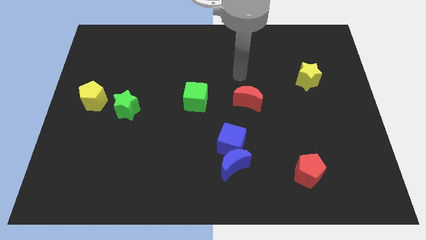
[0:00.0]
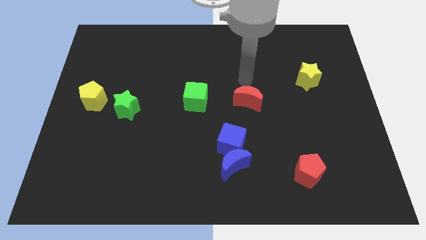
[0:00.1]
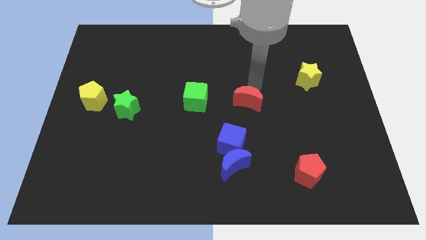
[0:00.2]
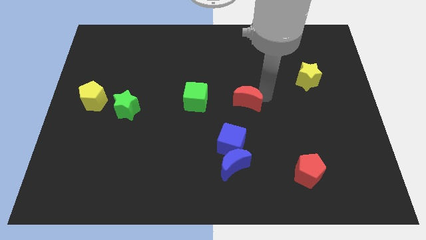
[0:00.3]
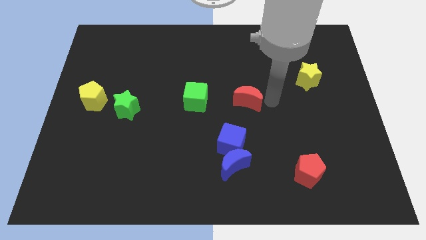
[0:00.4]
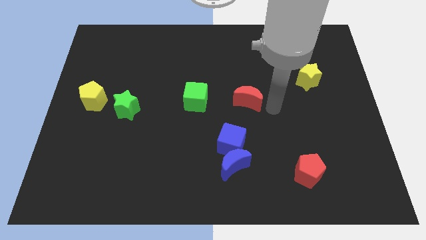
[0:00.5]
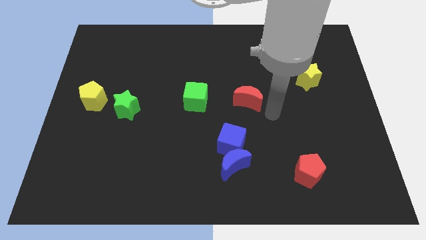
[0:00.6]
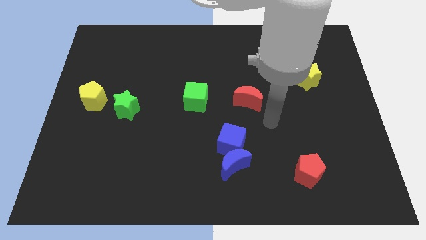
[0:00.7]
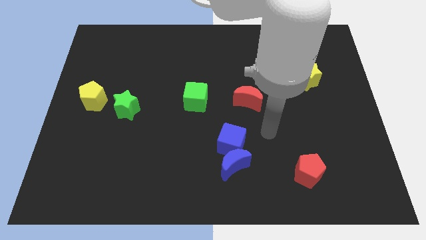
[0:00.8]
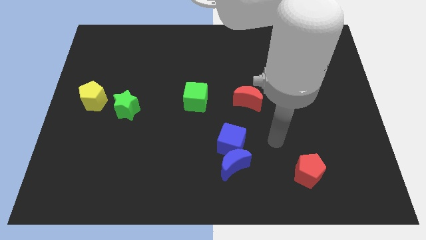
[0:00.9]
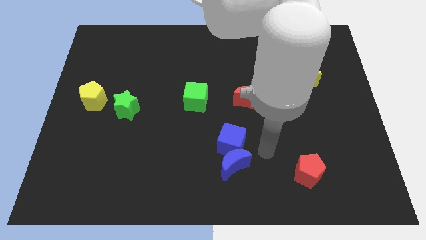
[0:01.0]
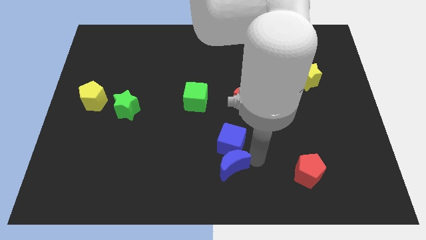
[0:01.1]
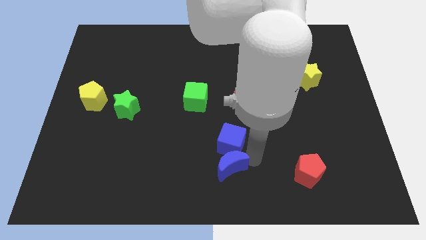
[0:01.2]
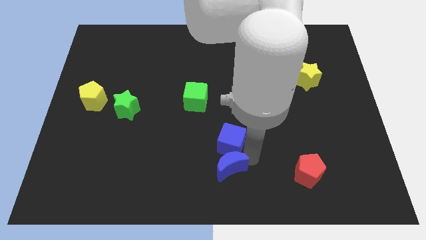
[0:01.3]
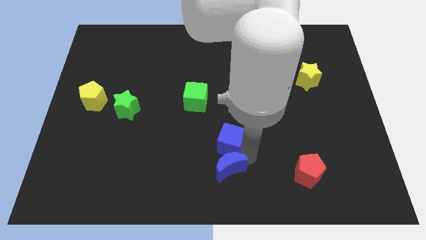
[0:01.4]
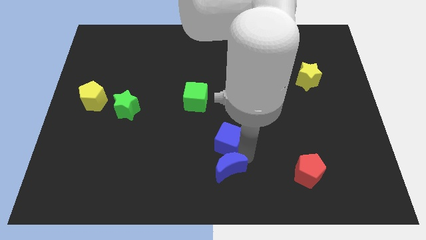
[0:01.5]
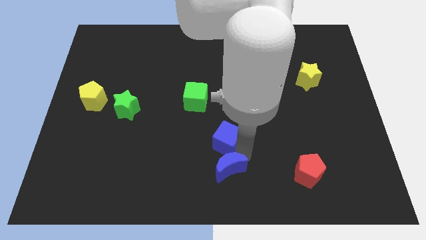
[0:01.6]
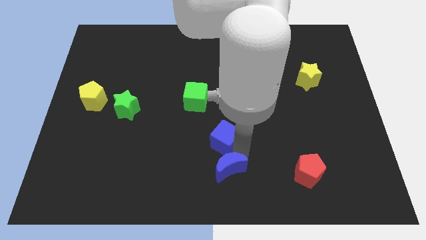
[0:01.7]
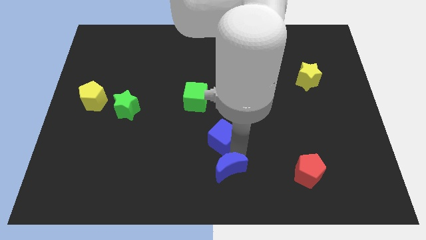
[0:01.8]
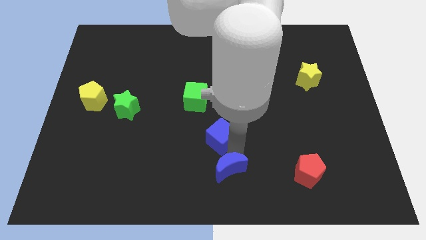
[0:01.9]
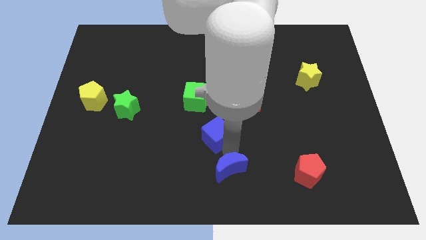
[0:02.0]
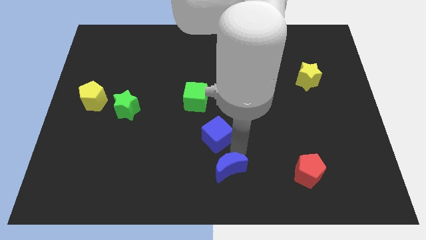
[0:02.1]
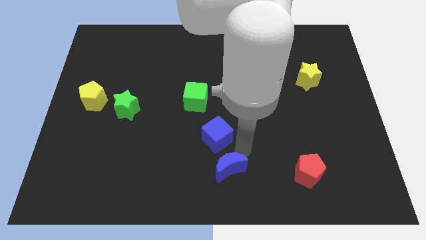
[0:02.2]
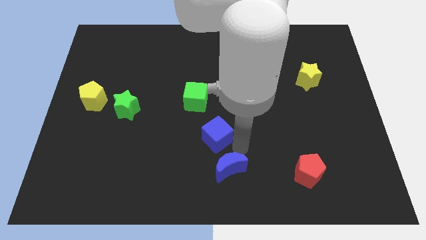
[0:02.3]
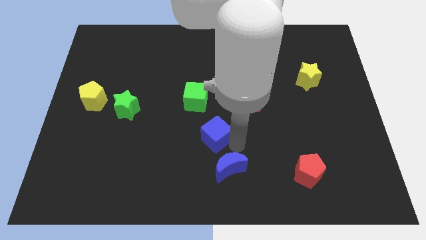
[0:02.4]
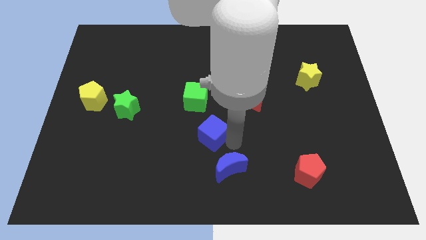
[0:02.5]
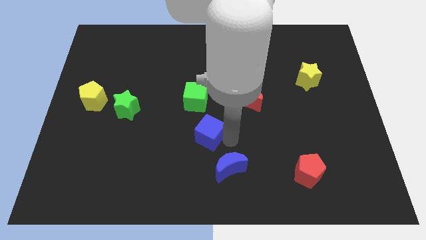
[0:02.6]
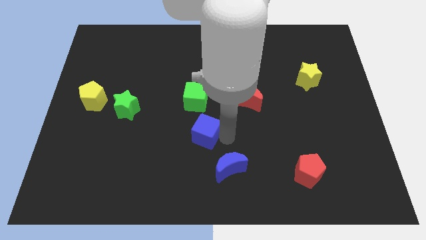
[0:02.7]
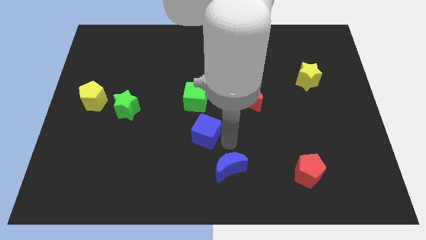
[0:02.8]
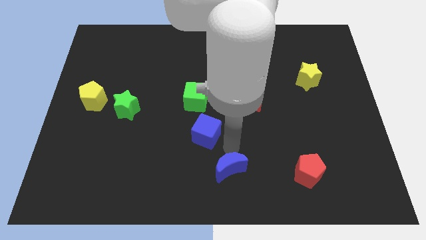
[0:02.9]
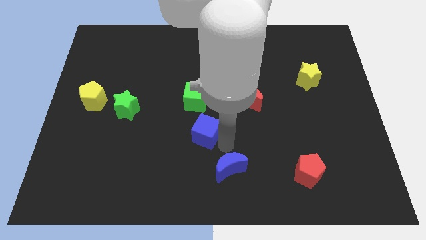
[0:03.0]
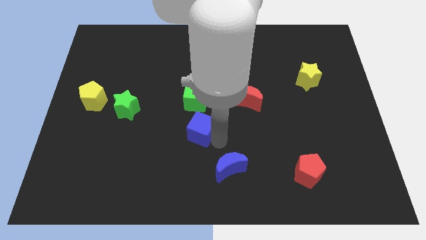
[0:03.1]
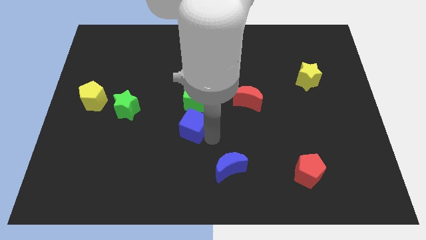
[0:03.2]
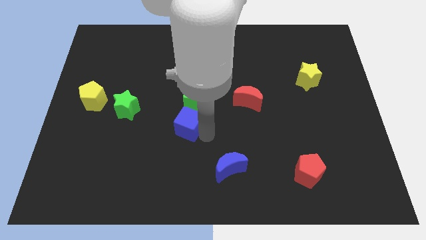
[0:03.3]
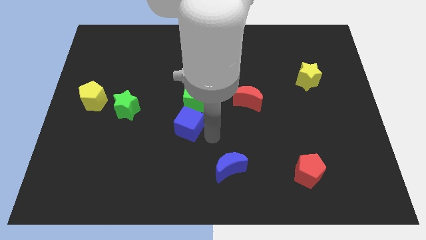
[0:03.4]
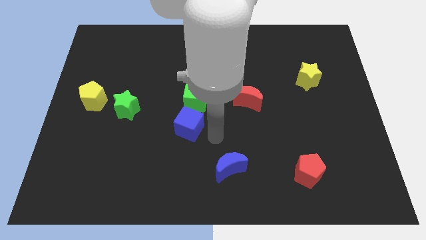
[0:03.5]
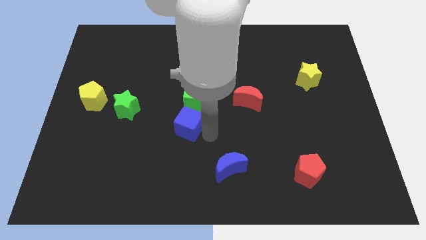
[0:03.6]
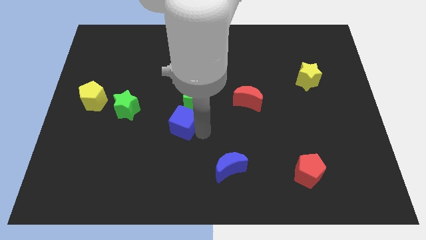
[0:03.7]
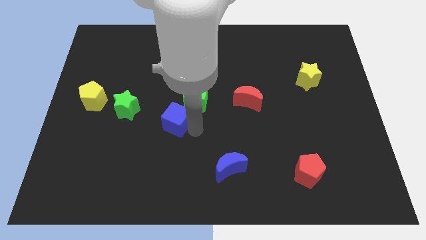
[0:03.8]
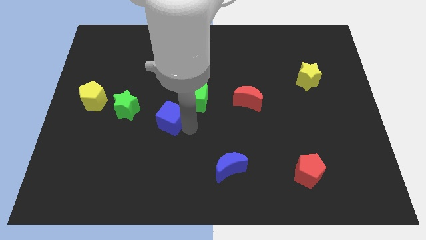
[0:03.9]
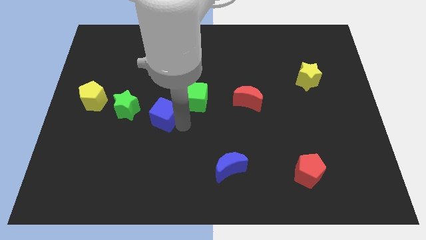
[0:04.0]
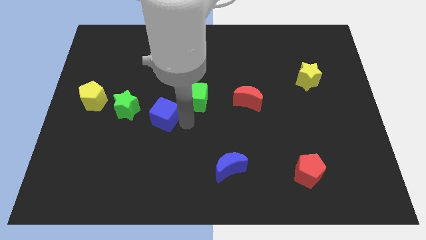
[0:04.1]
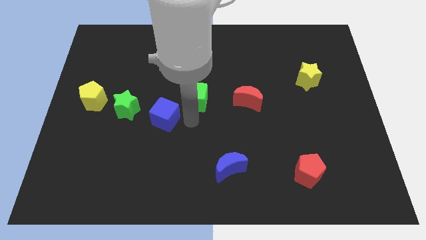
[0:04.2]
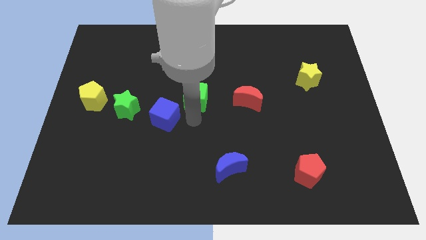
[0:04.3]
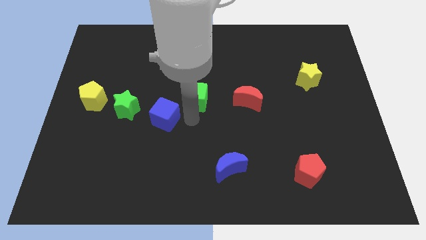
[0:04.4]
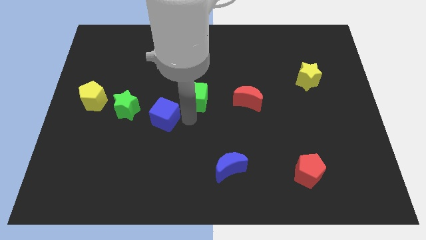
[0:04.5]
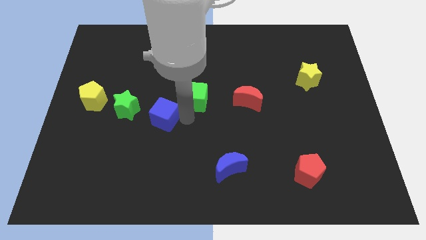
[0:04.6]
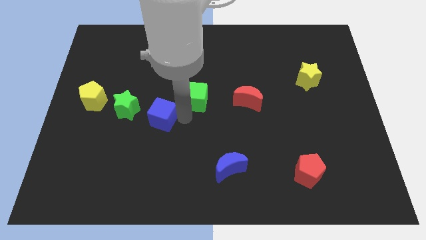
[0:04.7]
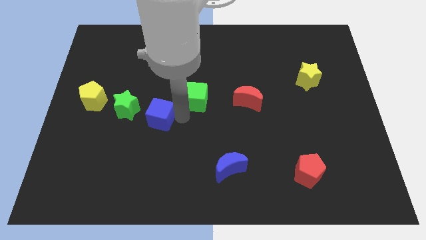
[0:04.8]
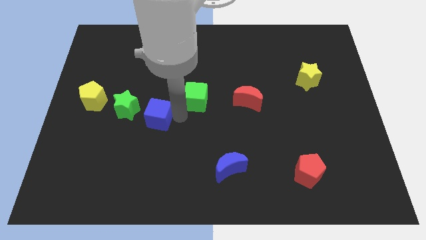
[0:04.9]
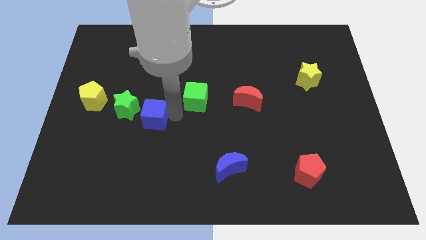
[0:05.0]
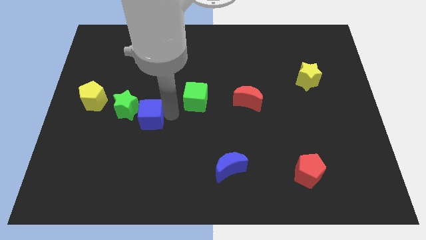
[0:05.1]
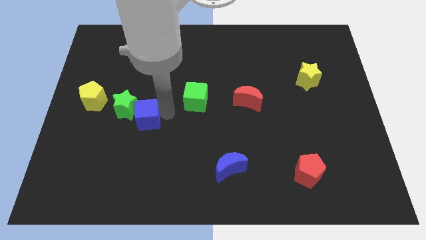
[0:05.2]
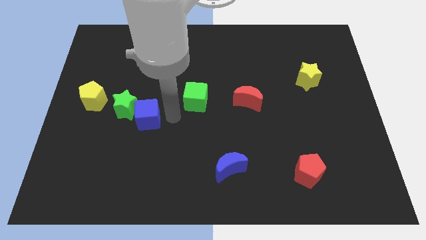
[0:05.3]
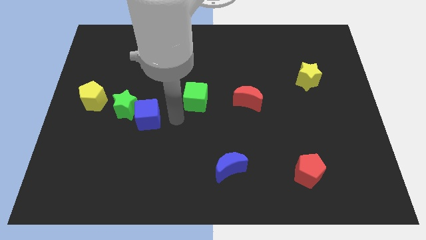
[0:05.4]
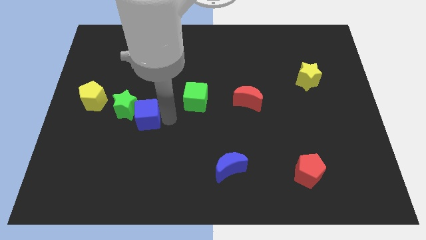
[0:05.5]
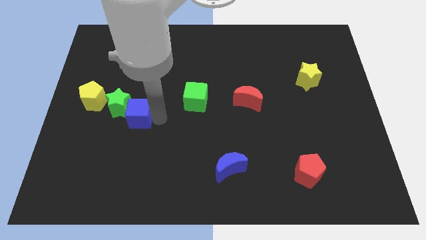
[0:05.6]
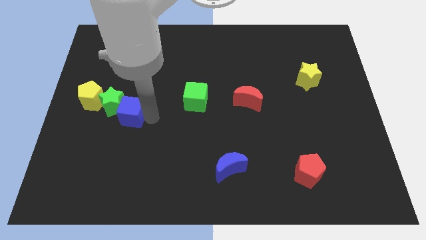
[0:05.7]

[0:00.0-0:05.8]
put the blue cube diagonally down and to the right of the yellow pentagon

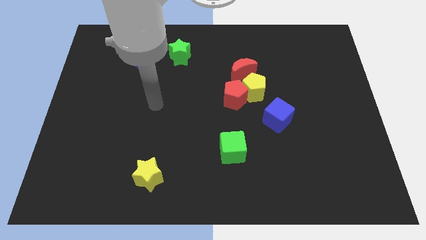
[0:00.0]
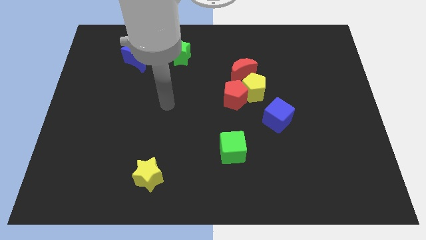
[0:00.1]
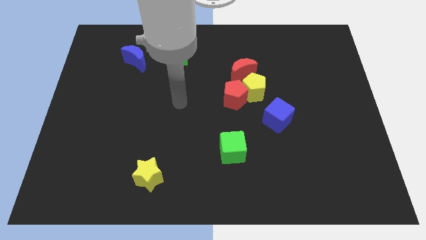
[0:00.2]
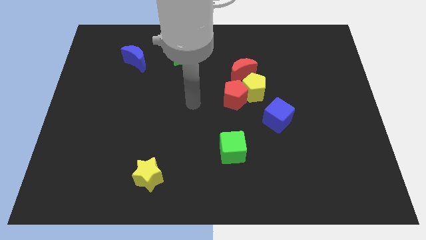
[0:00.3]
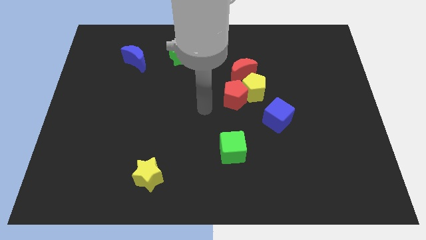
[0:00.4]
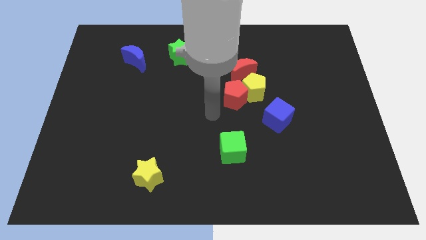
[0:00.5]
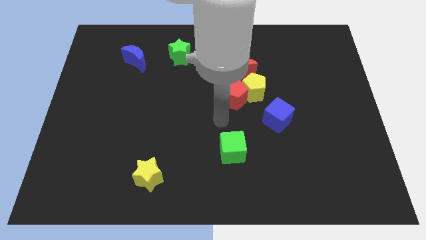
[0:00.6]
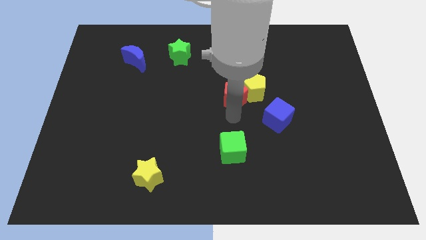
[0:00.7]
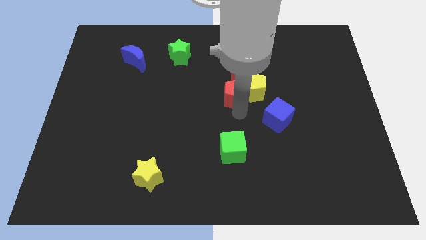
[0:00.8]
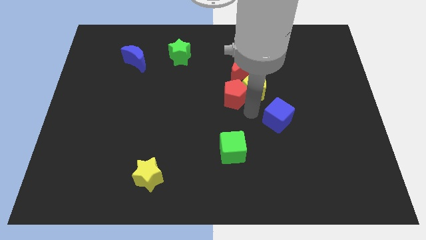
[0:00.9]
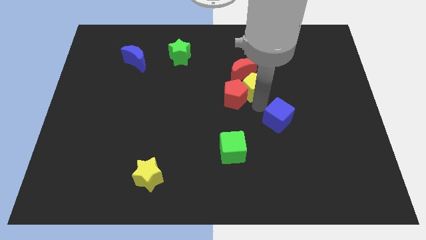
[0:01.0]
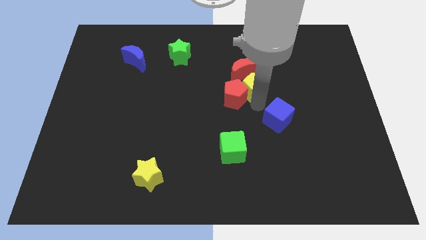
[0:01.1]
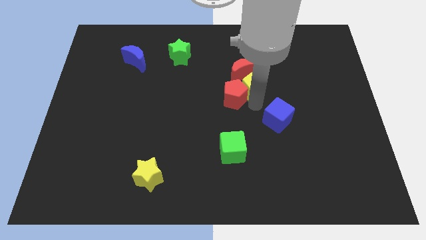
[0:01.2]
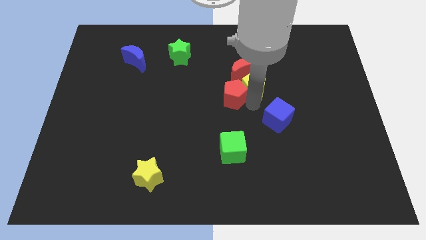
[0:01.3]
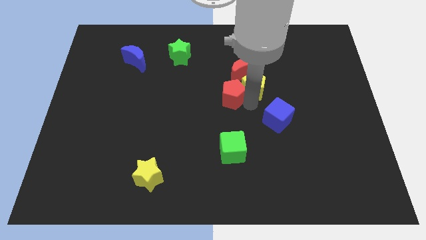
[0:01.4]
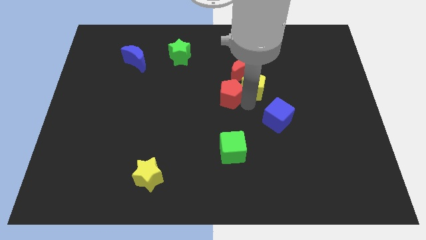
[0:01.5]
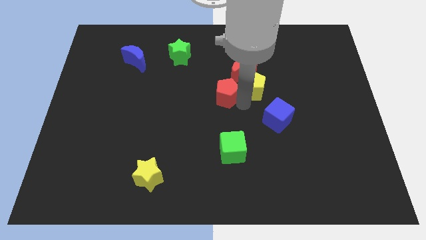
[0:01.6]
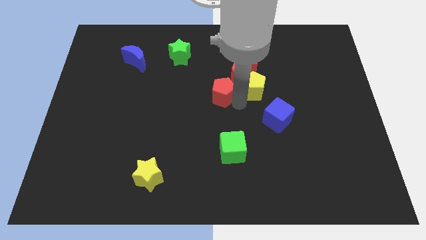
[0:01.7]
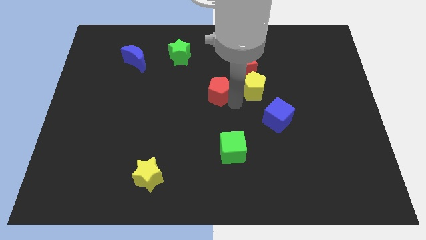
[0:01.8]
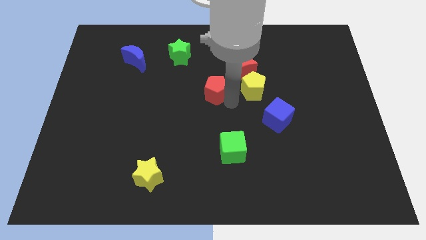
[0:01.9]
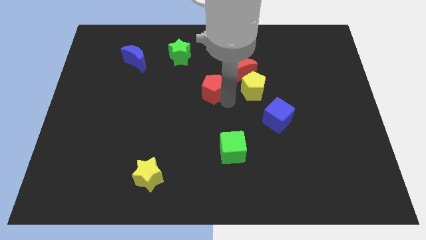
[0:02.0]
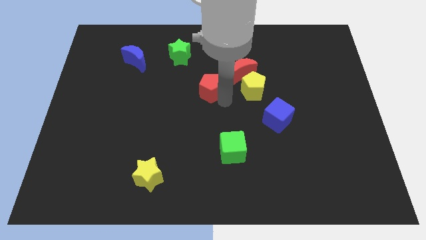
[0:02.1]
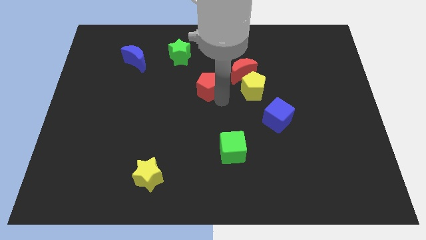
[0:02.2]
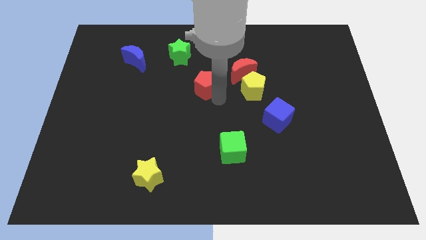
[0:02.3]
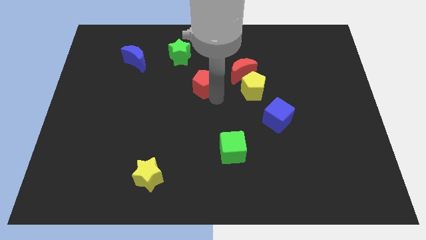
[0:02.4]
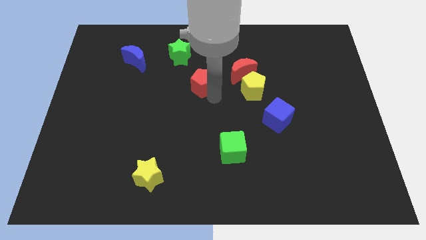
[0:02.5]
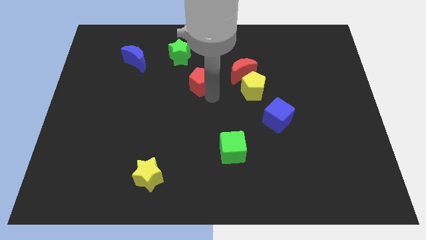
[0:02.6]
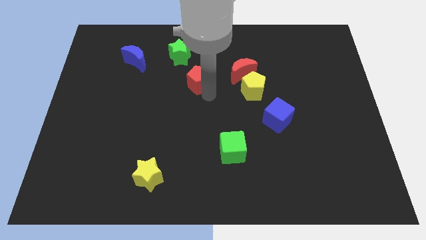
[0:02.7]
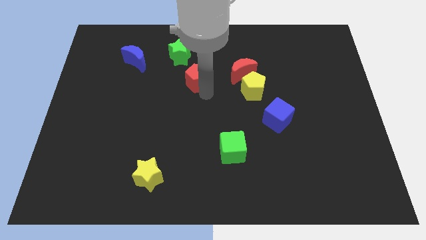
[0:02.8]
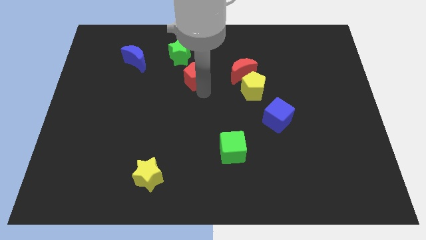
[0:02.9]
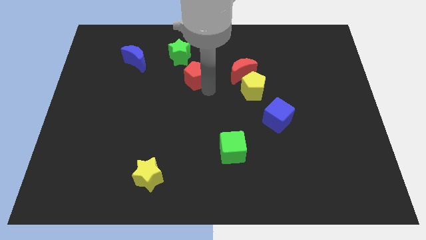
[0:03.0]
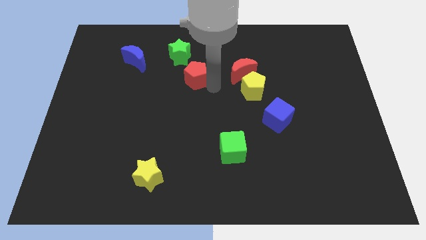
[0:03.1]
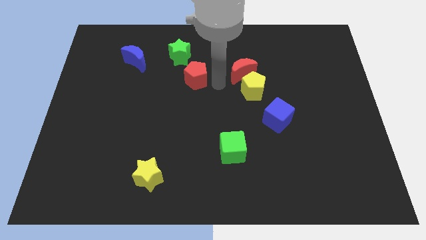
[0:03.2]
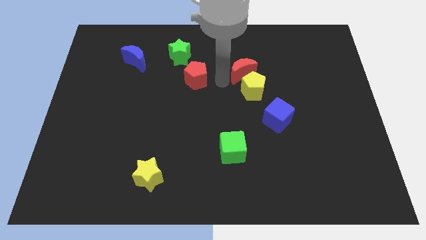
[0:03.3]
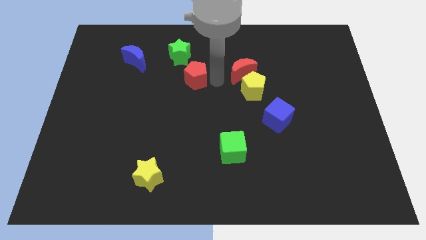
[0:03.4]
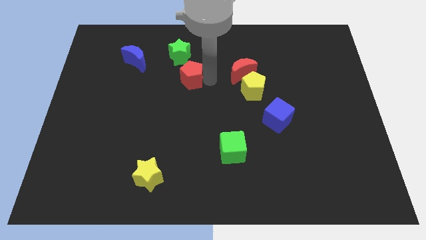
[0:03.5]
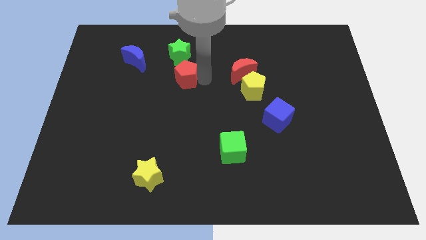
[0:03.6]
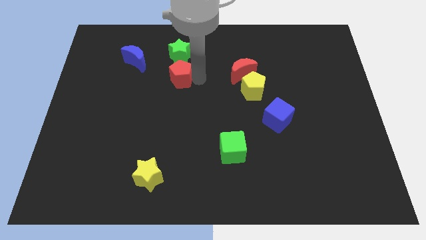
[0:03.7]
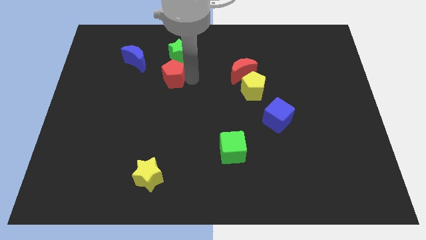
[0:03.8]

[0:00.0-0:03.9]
push the red pentagon diagonally down and to the left of the green star
